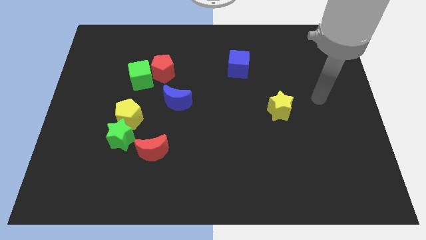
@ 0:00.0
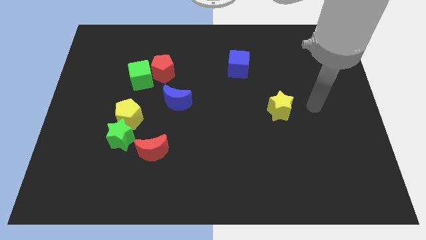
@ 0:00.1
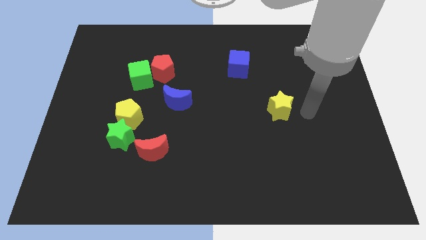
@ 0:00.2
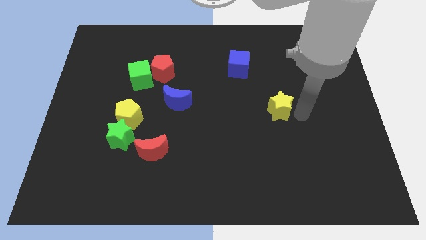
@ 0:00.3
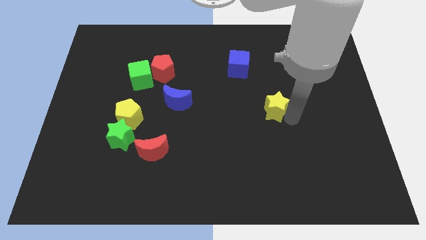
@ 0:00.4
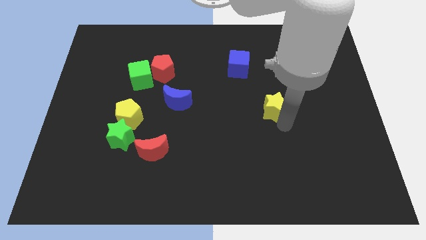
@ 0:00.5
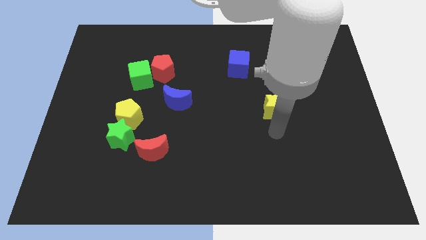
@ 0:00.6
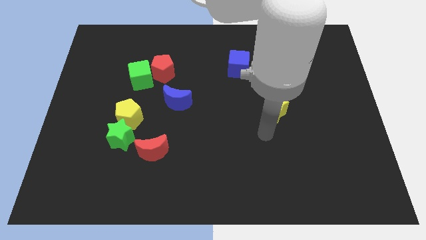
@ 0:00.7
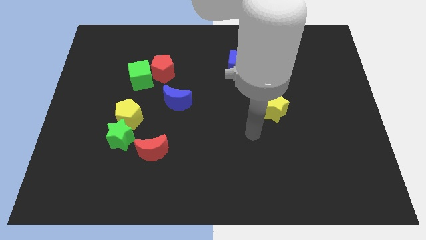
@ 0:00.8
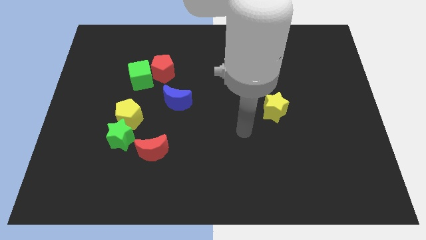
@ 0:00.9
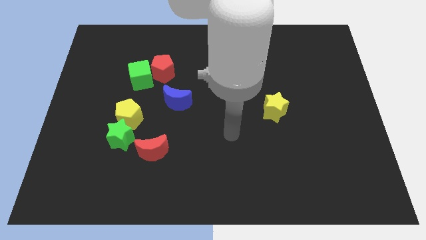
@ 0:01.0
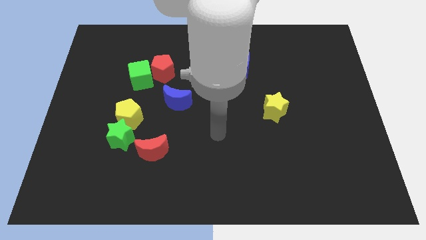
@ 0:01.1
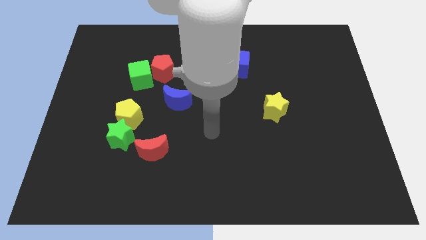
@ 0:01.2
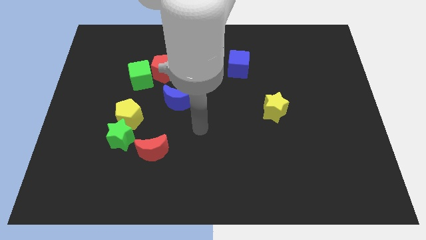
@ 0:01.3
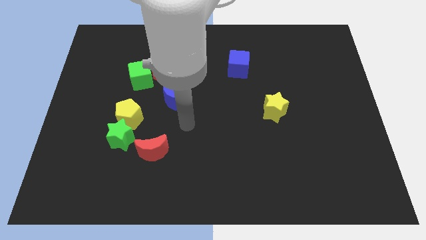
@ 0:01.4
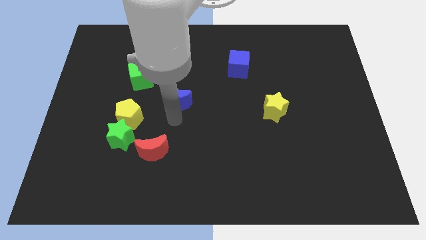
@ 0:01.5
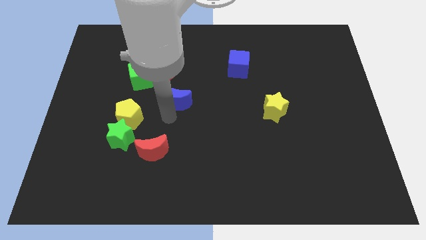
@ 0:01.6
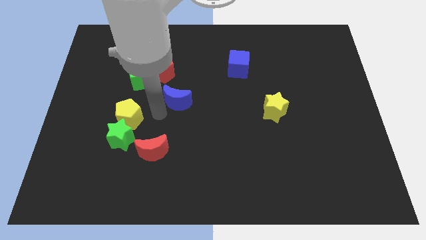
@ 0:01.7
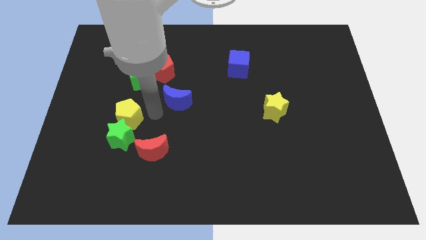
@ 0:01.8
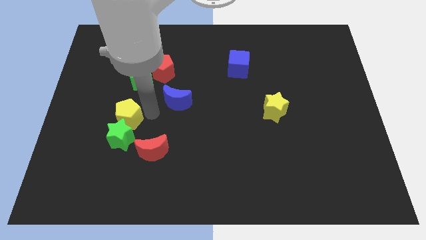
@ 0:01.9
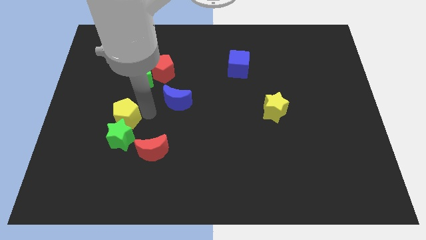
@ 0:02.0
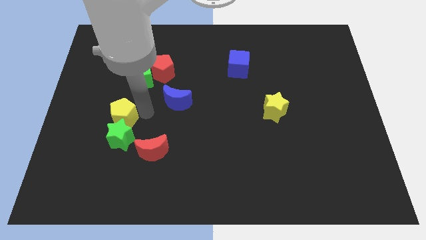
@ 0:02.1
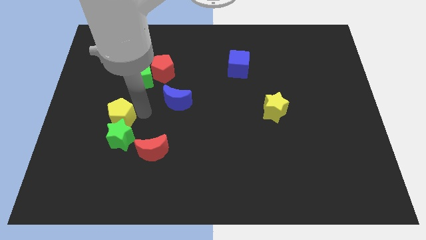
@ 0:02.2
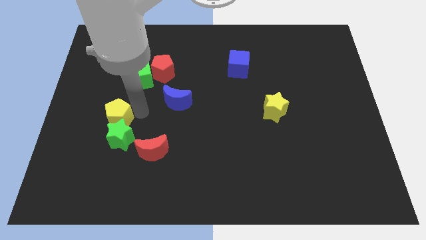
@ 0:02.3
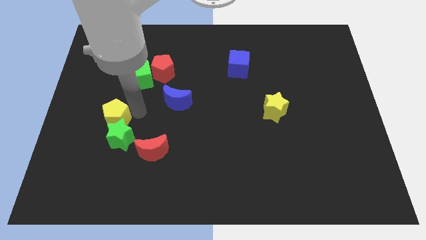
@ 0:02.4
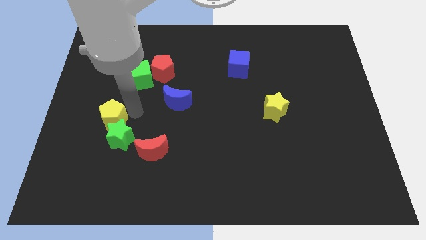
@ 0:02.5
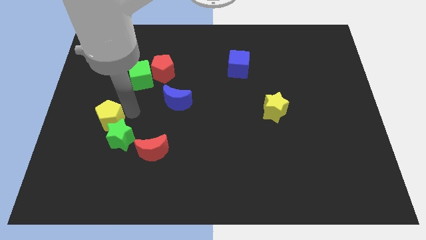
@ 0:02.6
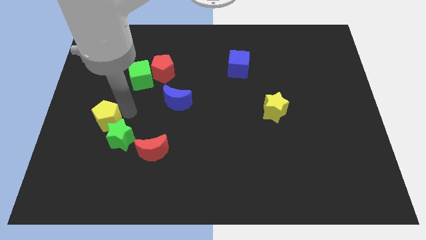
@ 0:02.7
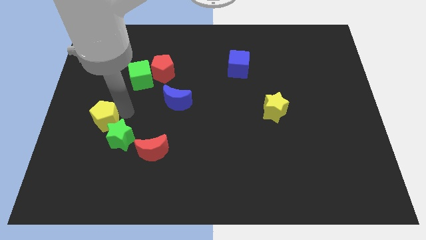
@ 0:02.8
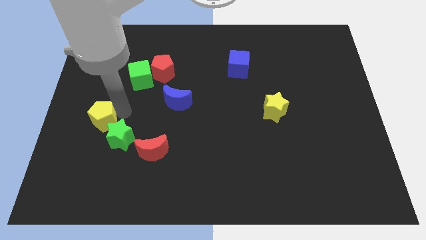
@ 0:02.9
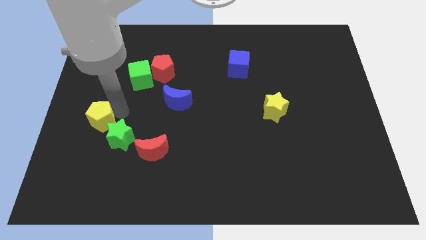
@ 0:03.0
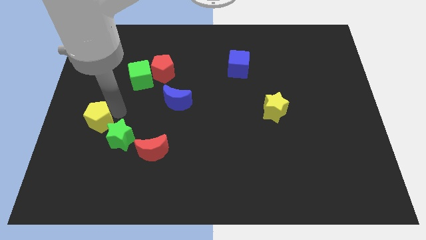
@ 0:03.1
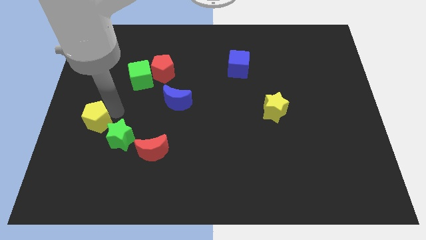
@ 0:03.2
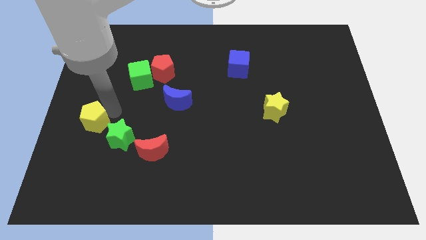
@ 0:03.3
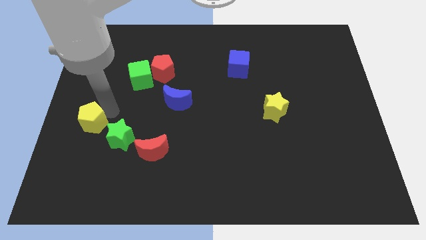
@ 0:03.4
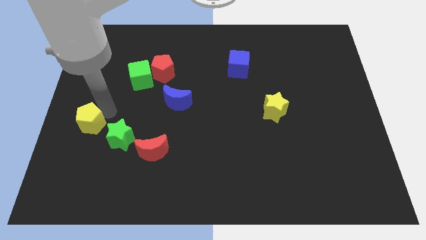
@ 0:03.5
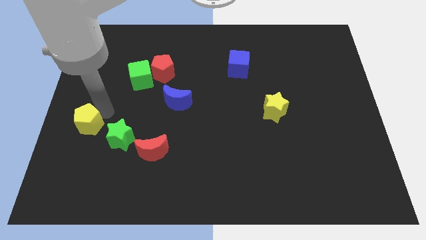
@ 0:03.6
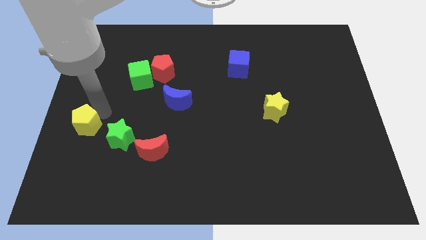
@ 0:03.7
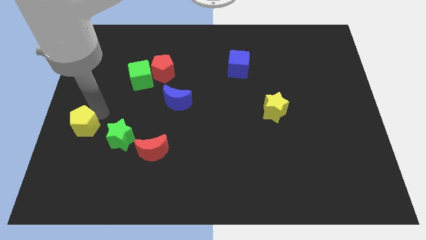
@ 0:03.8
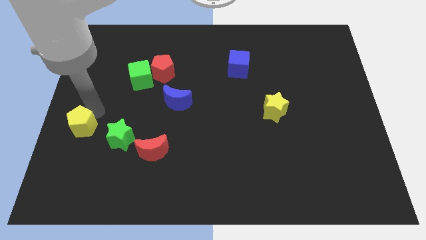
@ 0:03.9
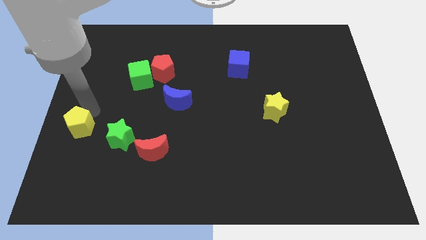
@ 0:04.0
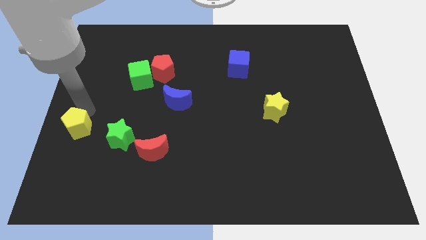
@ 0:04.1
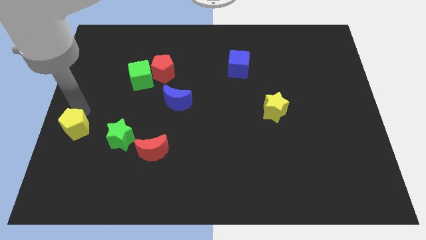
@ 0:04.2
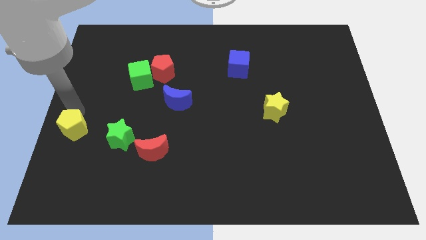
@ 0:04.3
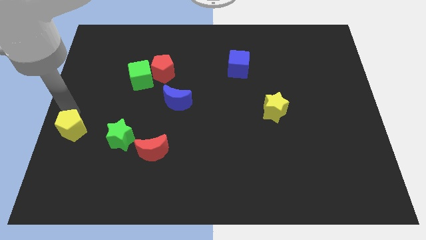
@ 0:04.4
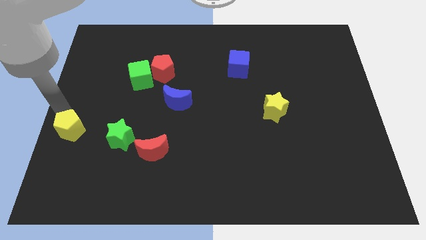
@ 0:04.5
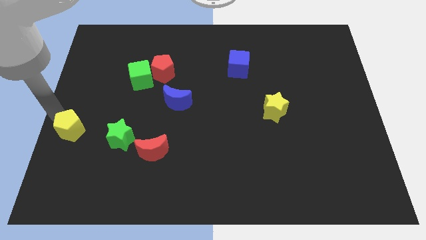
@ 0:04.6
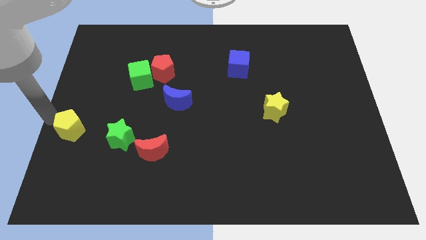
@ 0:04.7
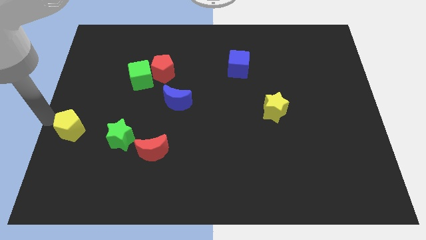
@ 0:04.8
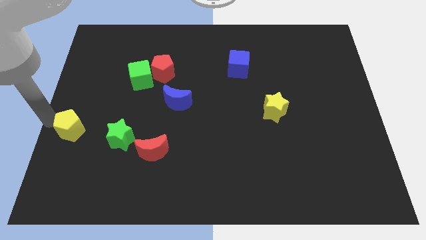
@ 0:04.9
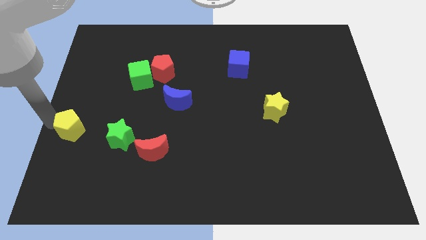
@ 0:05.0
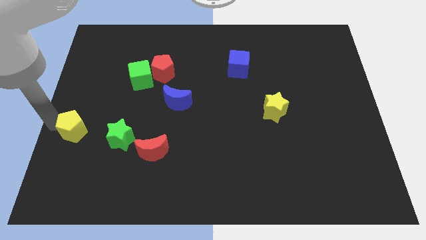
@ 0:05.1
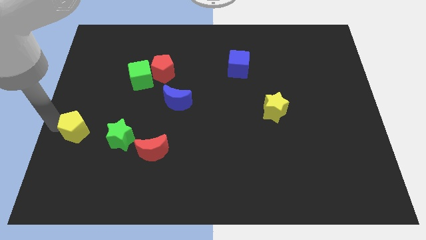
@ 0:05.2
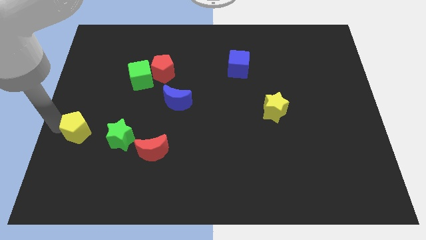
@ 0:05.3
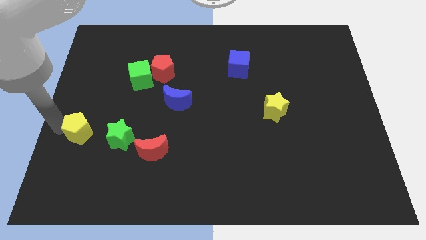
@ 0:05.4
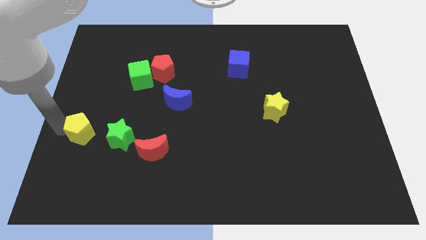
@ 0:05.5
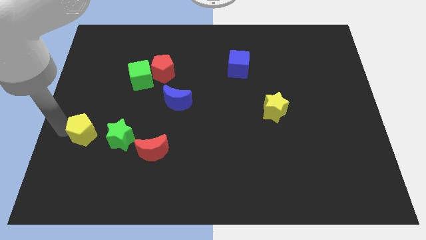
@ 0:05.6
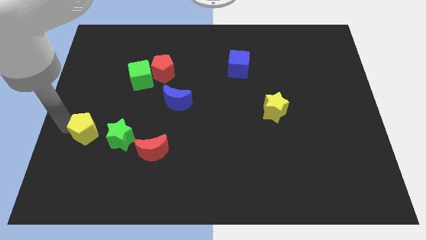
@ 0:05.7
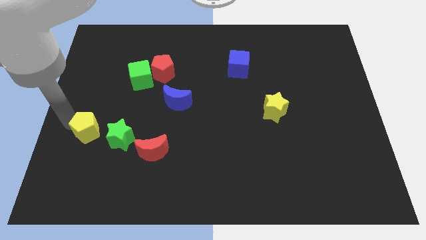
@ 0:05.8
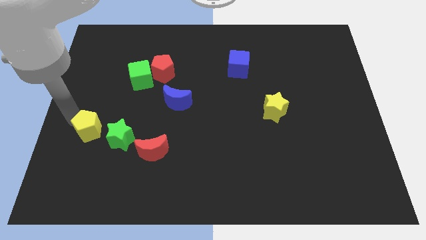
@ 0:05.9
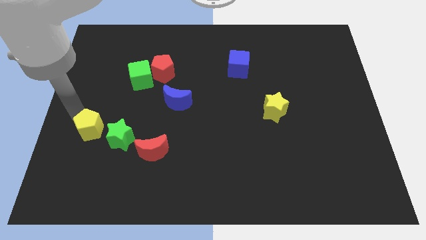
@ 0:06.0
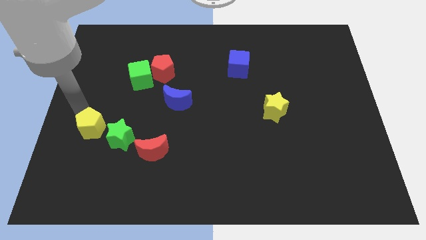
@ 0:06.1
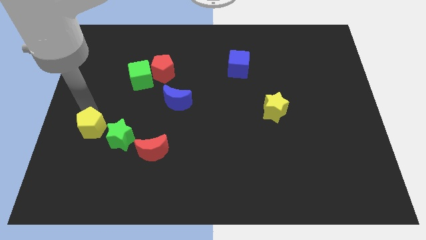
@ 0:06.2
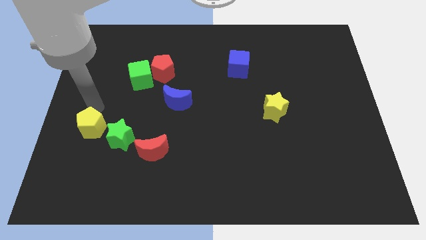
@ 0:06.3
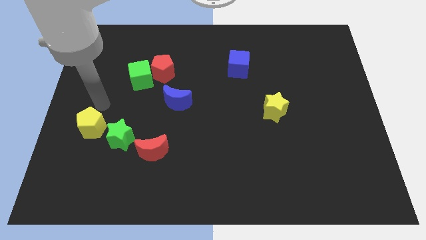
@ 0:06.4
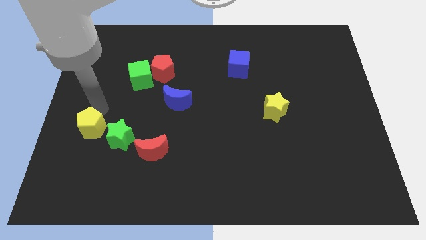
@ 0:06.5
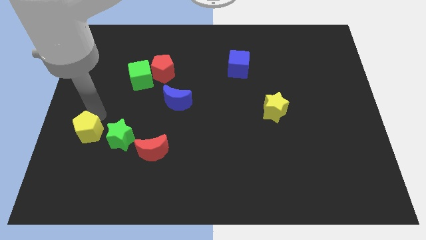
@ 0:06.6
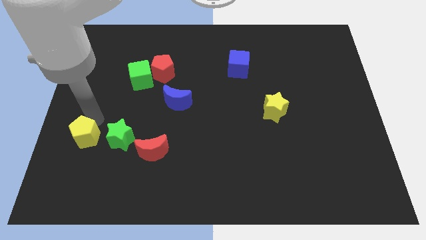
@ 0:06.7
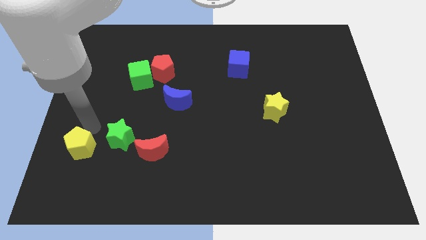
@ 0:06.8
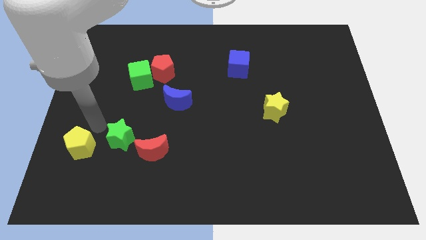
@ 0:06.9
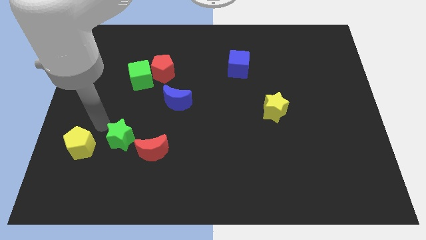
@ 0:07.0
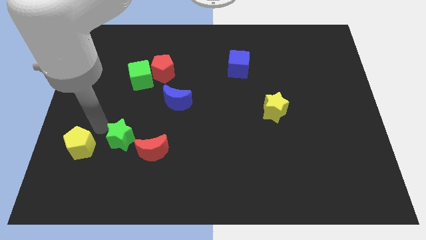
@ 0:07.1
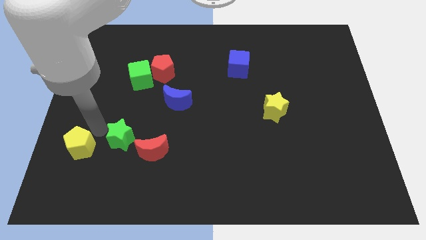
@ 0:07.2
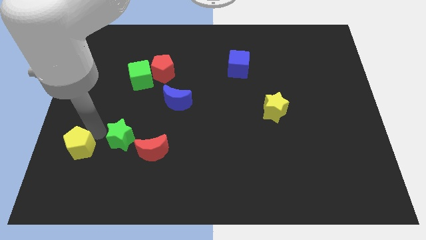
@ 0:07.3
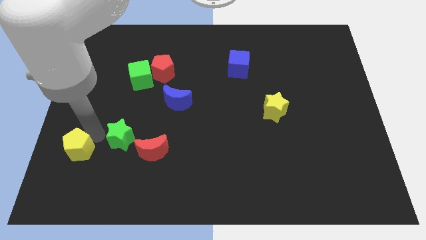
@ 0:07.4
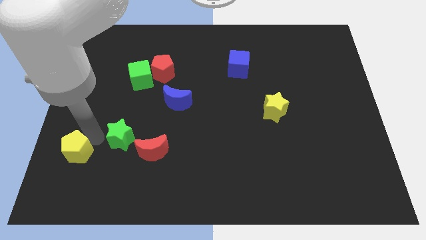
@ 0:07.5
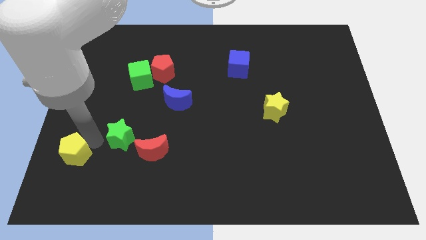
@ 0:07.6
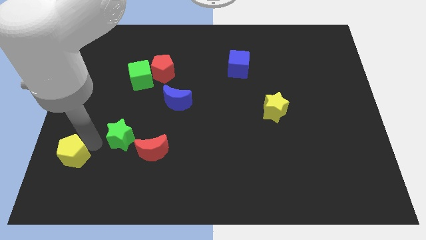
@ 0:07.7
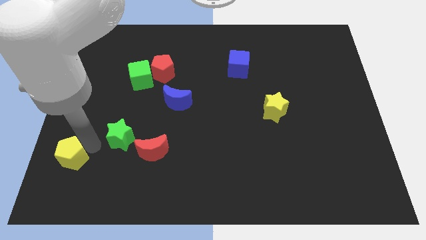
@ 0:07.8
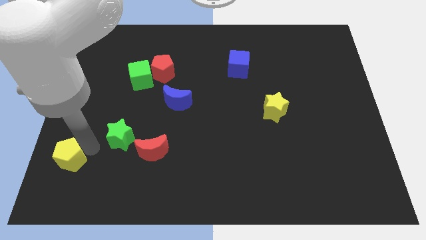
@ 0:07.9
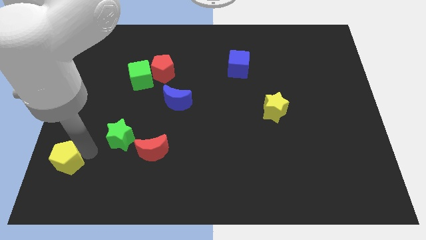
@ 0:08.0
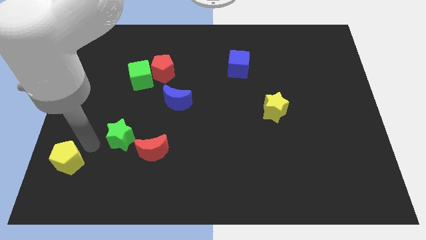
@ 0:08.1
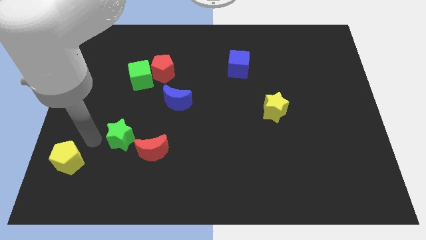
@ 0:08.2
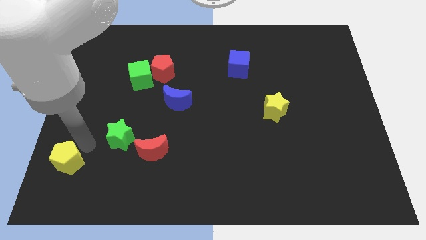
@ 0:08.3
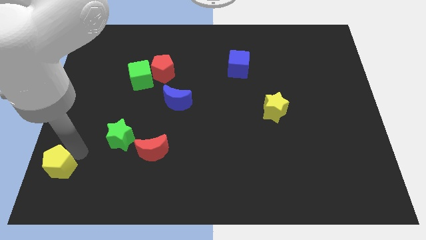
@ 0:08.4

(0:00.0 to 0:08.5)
put the yellow pentagon to the bottom left corner
